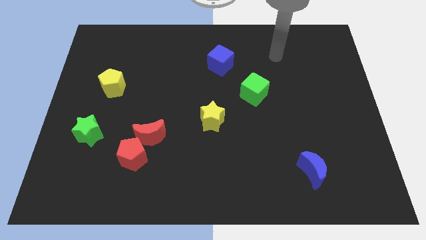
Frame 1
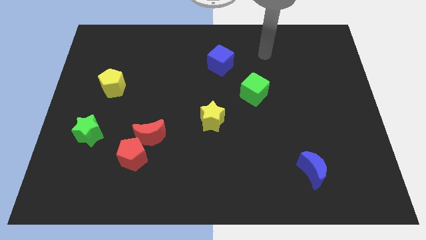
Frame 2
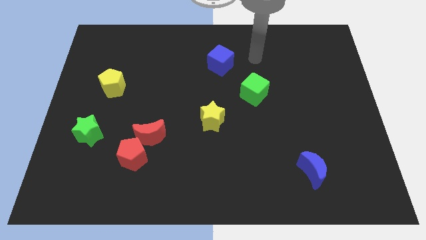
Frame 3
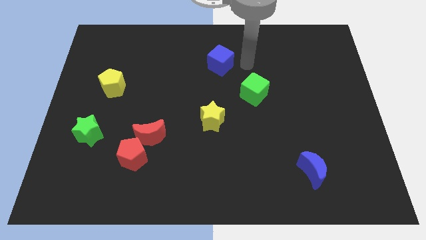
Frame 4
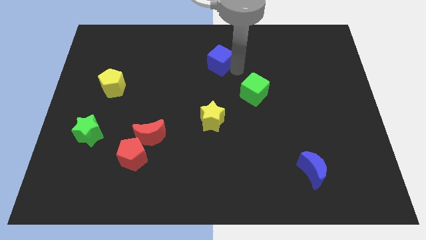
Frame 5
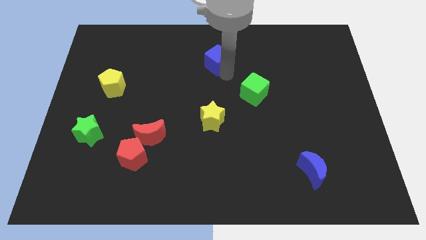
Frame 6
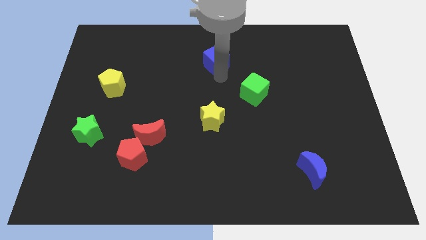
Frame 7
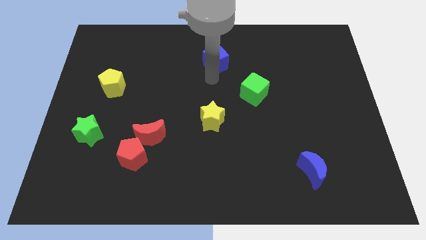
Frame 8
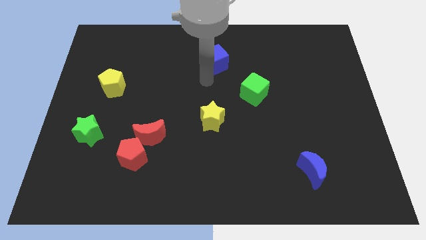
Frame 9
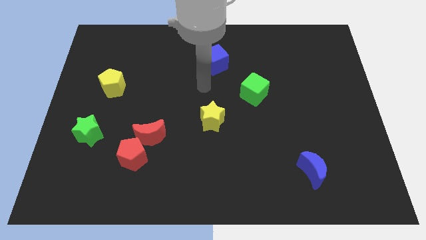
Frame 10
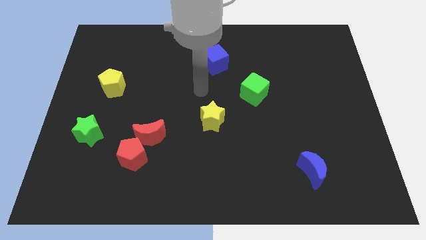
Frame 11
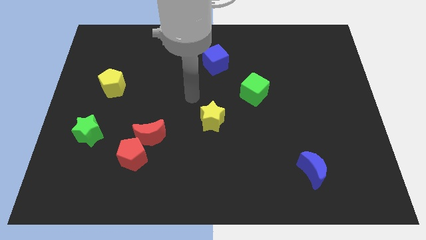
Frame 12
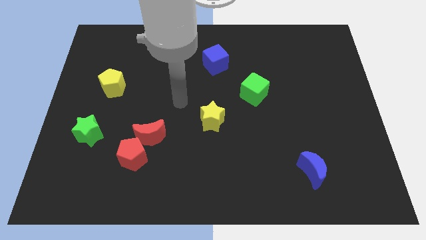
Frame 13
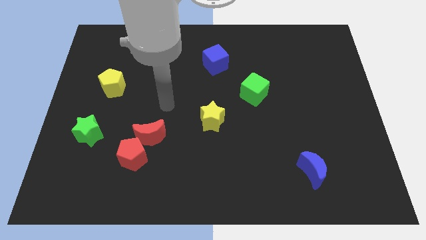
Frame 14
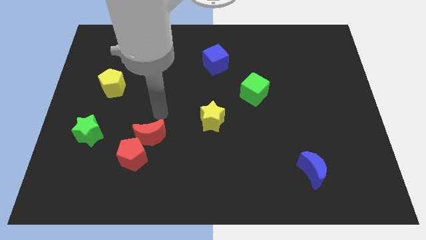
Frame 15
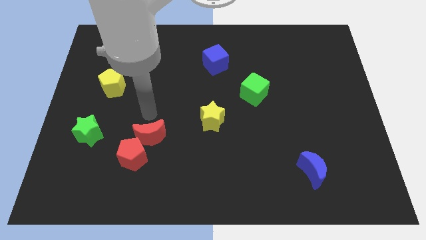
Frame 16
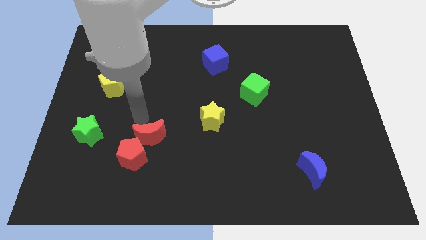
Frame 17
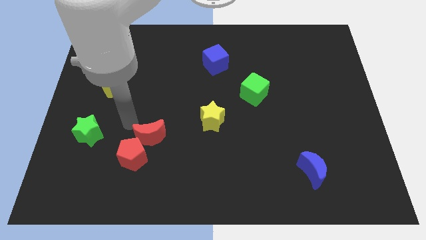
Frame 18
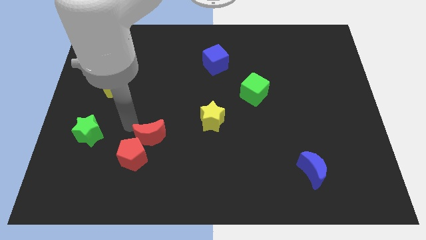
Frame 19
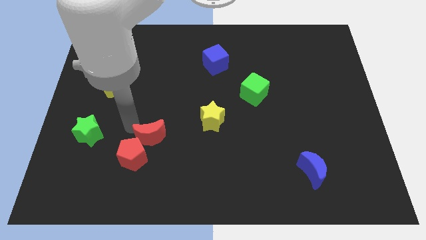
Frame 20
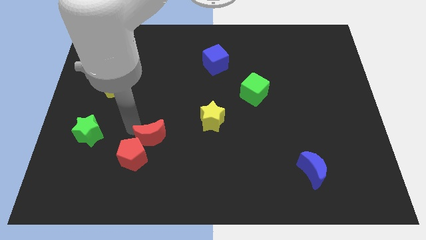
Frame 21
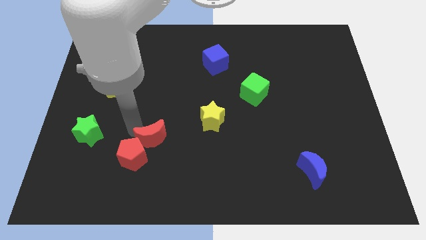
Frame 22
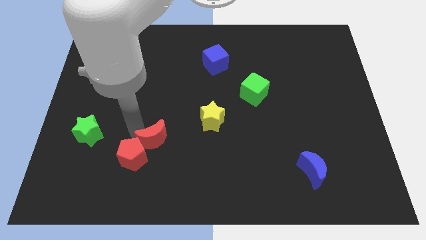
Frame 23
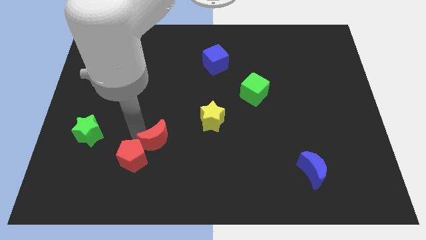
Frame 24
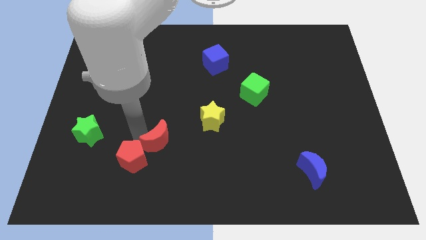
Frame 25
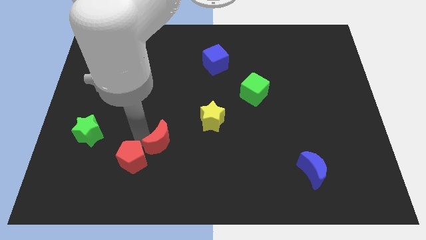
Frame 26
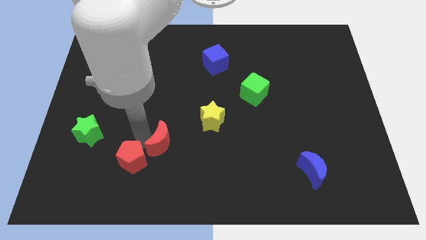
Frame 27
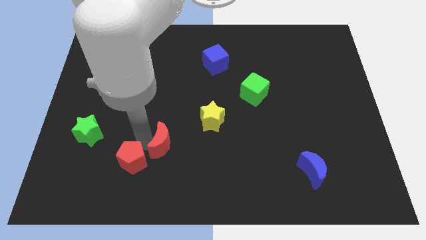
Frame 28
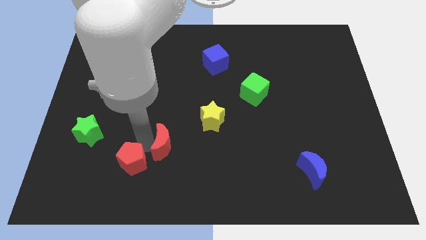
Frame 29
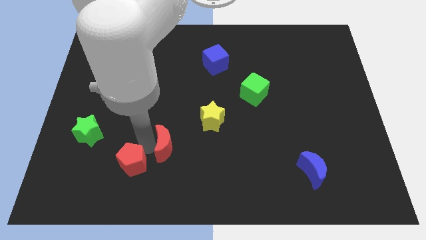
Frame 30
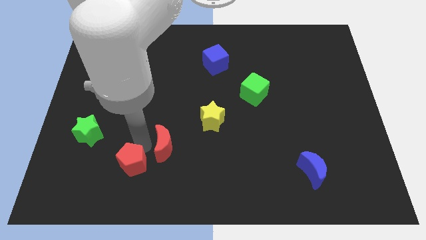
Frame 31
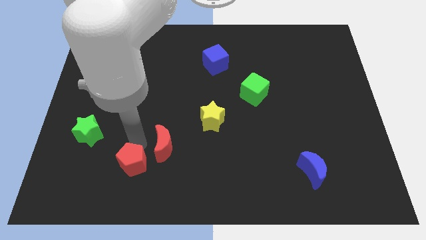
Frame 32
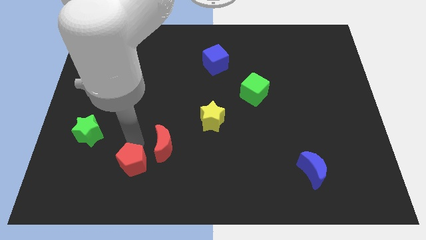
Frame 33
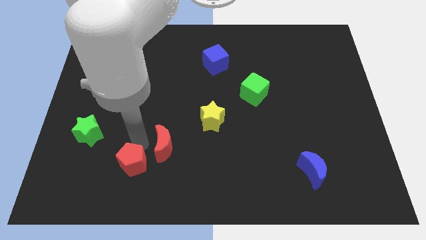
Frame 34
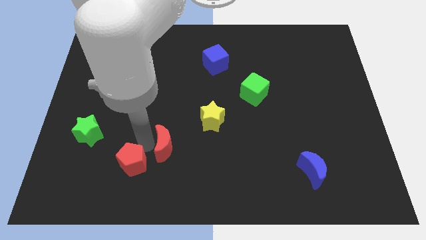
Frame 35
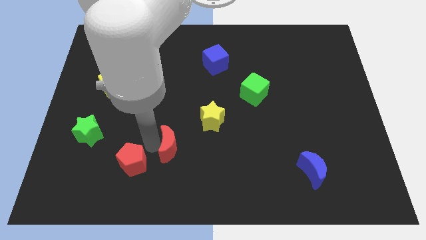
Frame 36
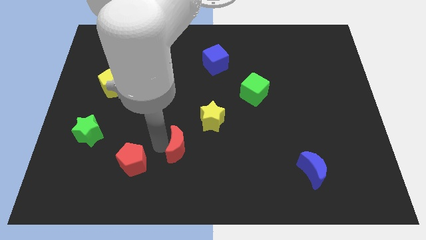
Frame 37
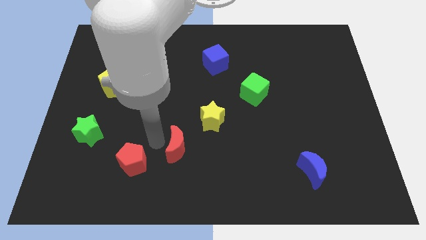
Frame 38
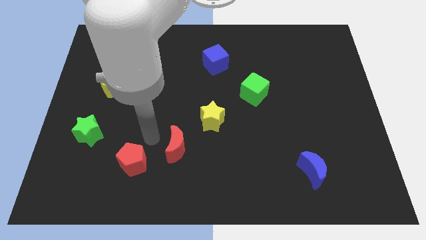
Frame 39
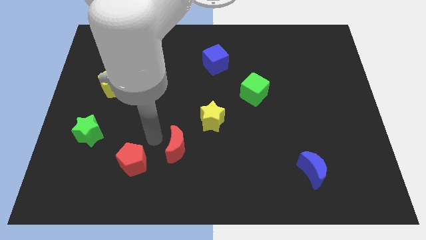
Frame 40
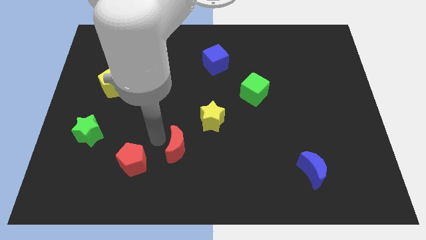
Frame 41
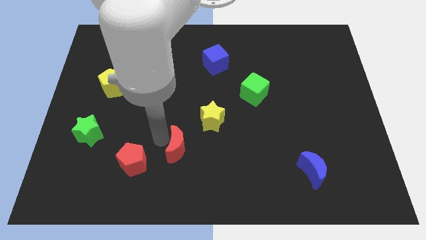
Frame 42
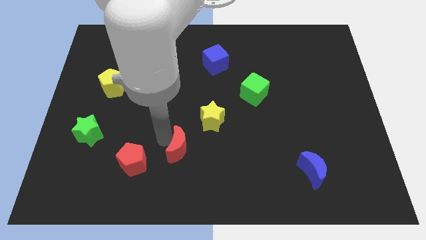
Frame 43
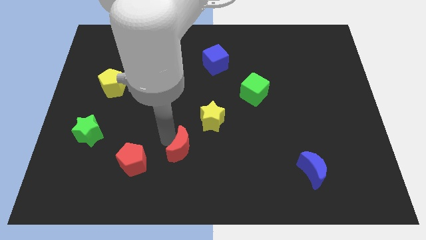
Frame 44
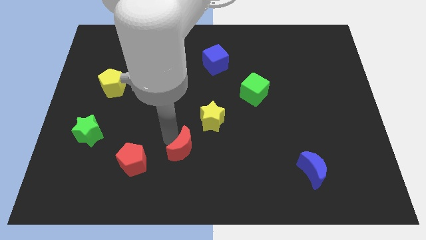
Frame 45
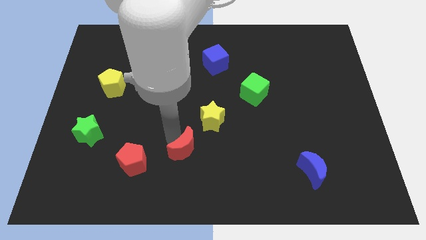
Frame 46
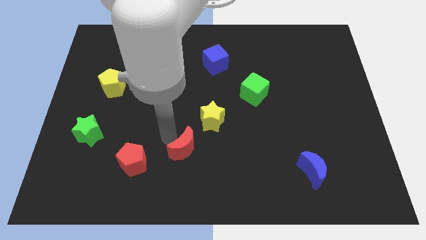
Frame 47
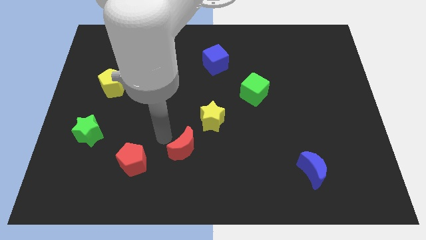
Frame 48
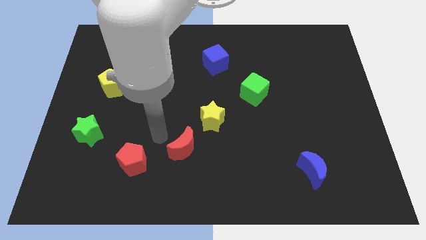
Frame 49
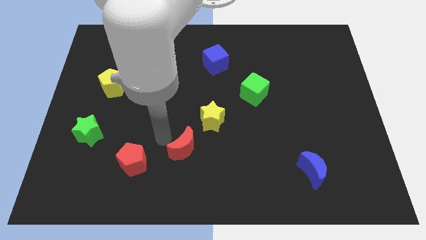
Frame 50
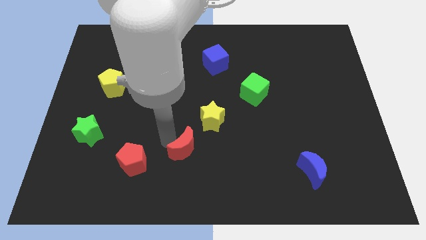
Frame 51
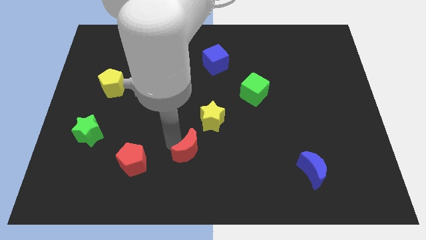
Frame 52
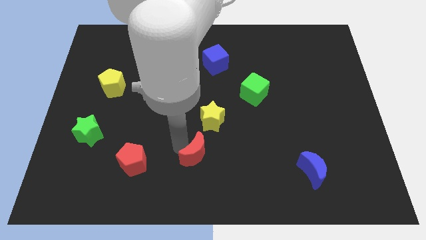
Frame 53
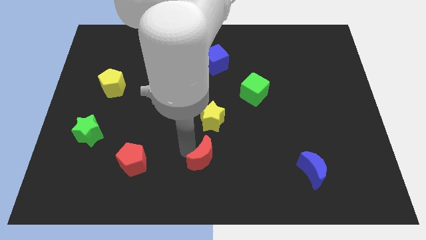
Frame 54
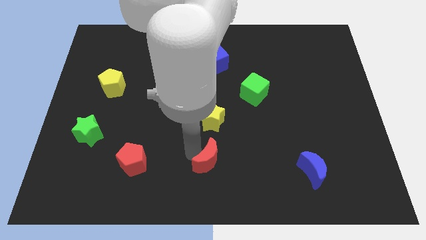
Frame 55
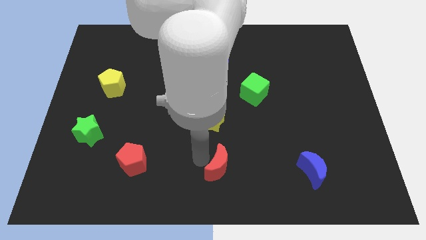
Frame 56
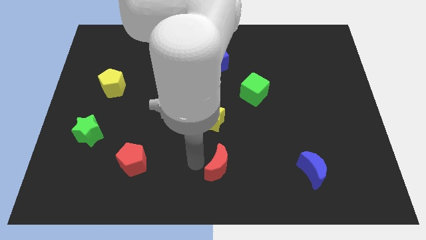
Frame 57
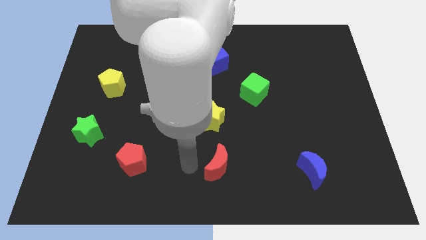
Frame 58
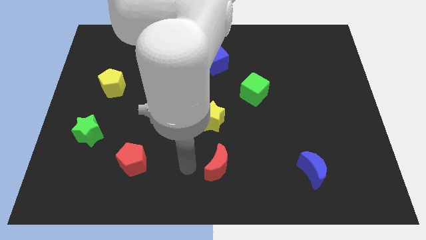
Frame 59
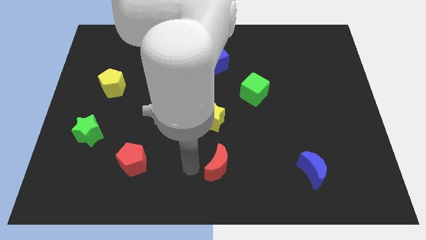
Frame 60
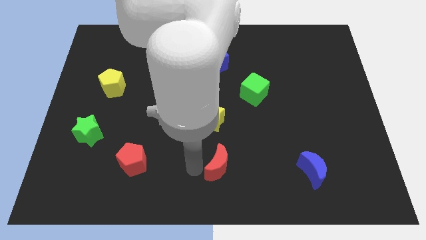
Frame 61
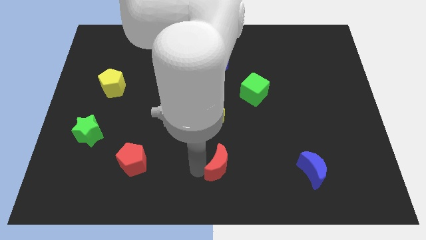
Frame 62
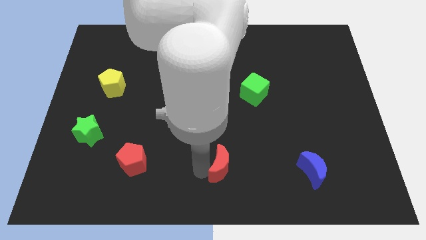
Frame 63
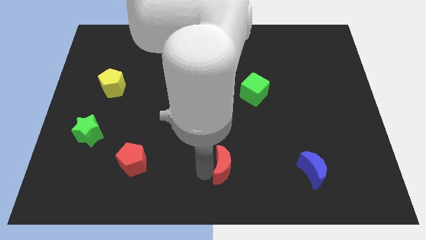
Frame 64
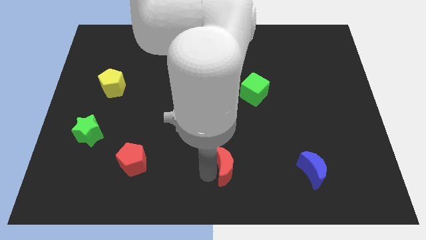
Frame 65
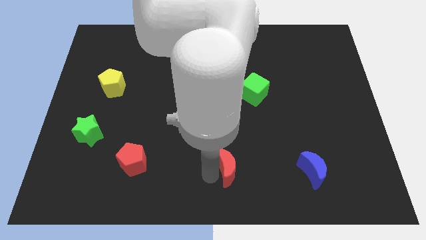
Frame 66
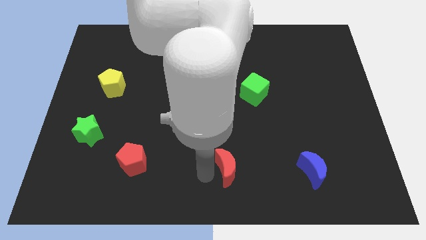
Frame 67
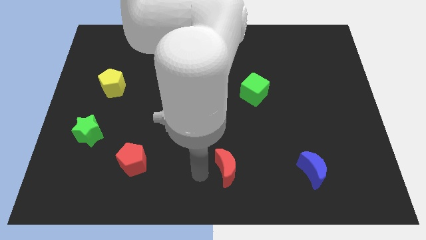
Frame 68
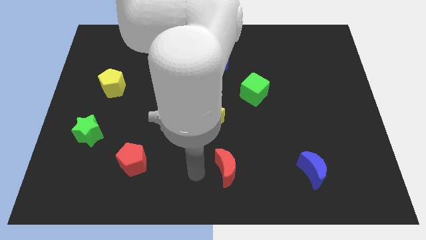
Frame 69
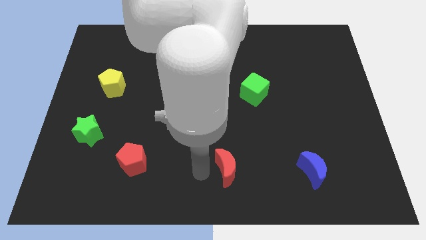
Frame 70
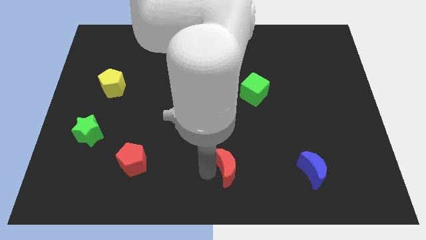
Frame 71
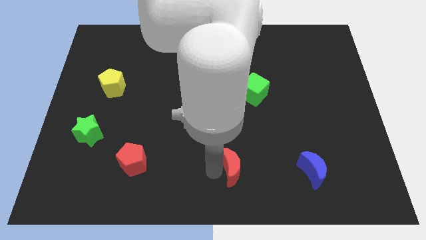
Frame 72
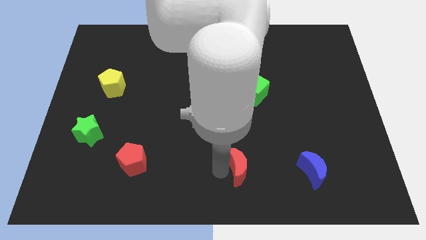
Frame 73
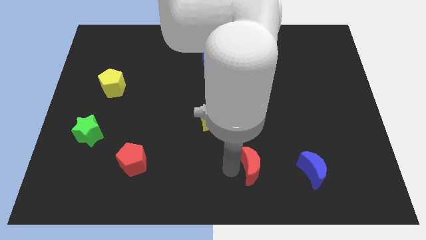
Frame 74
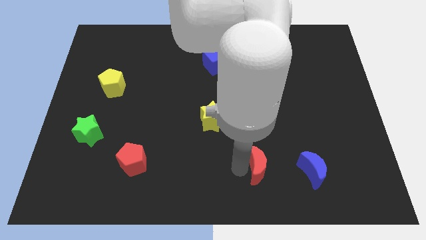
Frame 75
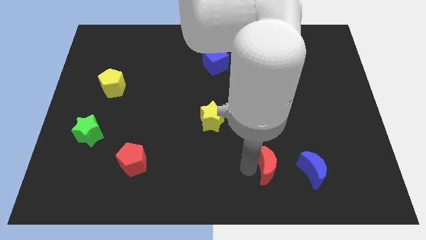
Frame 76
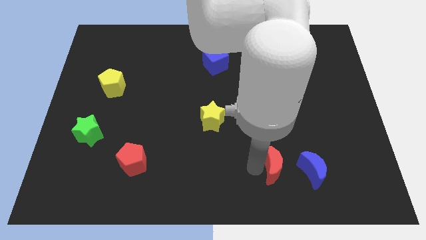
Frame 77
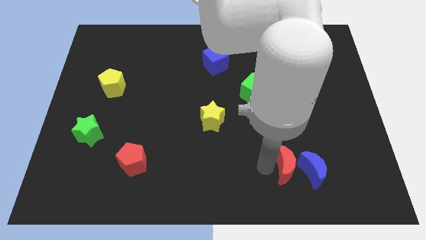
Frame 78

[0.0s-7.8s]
move the red moon towards the blue moon
